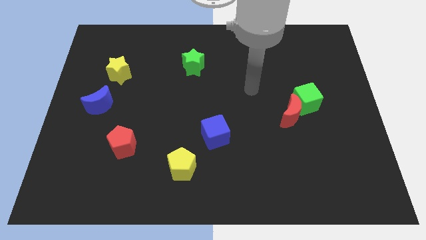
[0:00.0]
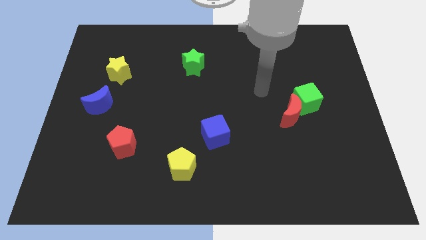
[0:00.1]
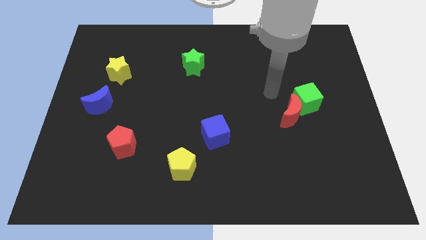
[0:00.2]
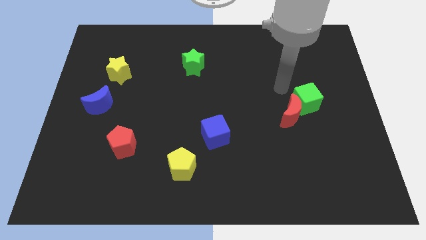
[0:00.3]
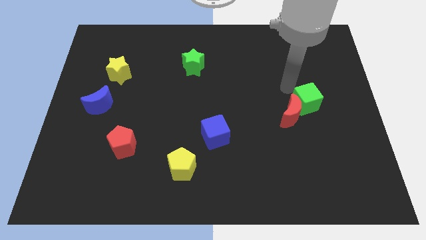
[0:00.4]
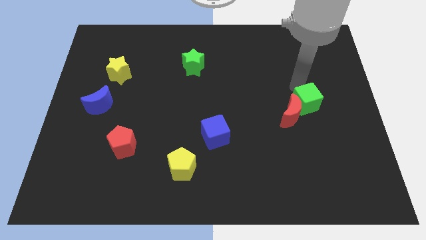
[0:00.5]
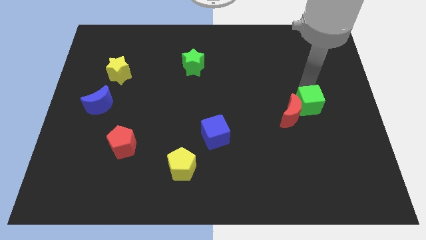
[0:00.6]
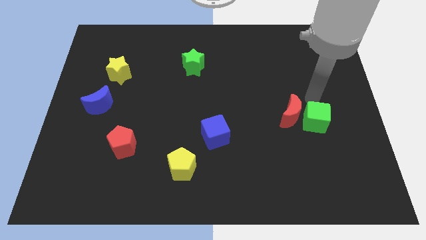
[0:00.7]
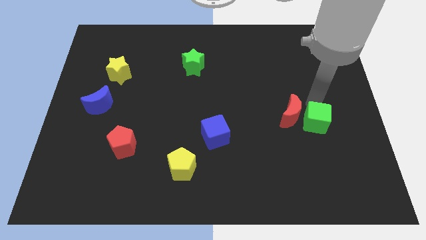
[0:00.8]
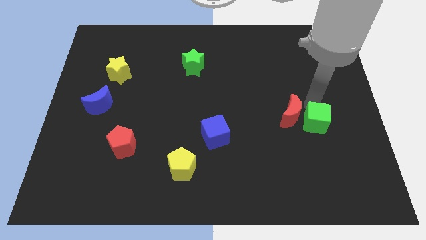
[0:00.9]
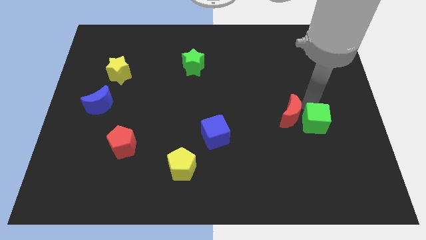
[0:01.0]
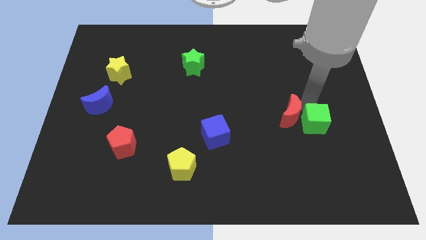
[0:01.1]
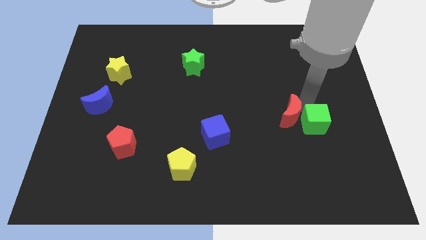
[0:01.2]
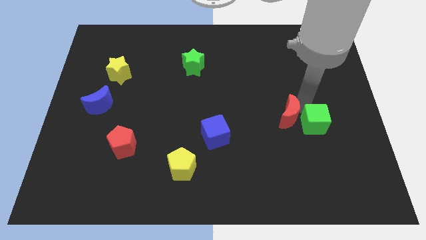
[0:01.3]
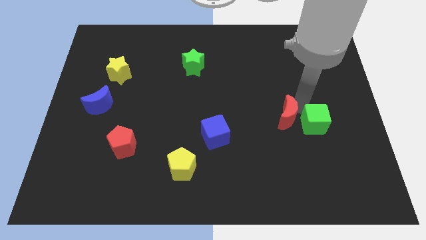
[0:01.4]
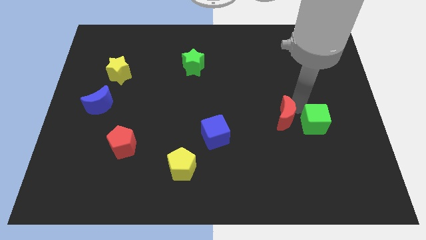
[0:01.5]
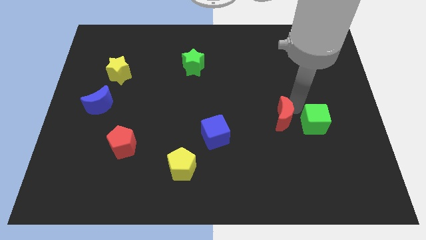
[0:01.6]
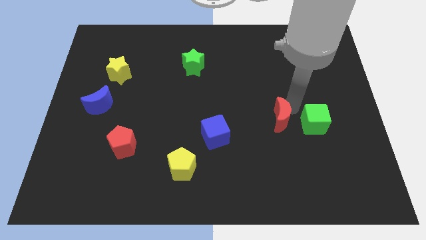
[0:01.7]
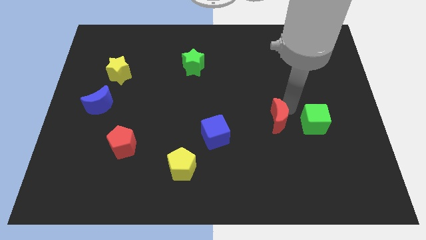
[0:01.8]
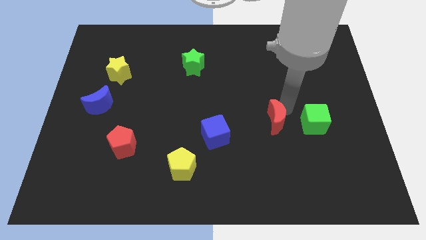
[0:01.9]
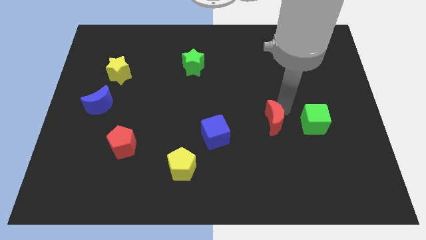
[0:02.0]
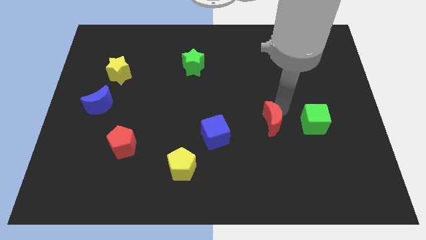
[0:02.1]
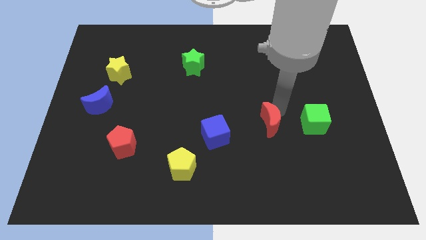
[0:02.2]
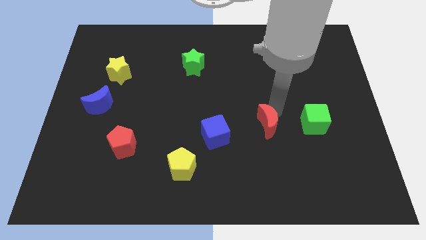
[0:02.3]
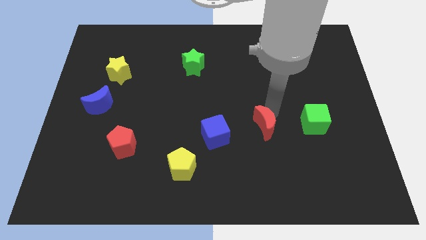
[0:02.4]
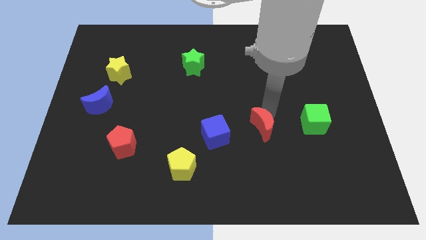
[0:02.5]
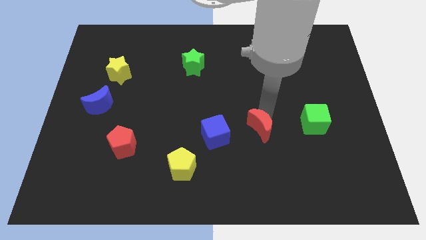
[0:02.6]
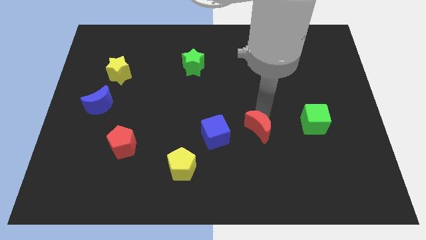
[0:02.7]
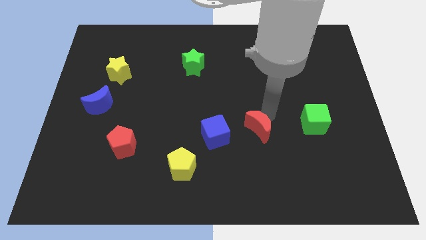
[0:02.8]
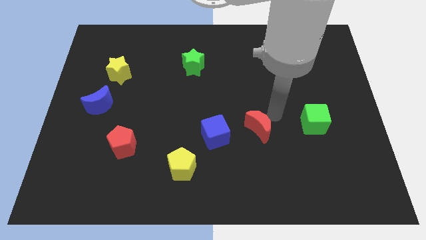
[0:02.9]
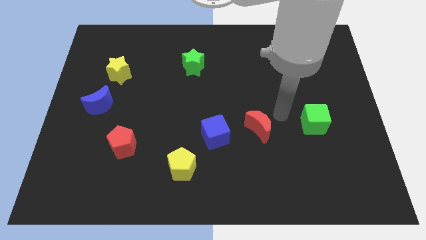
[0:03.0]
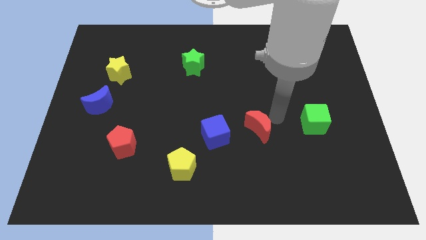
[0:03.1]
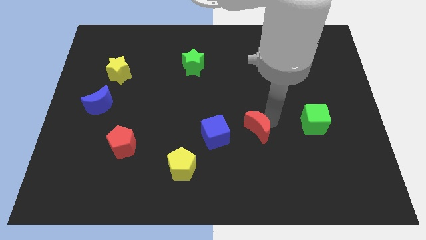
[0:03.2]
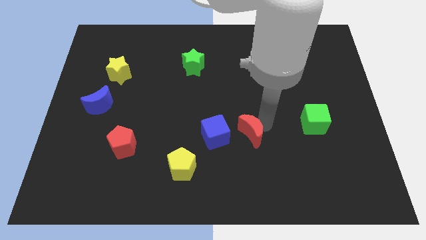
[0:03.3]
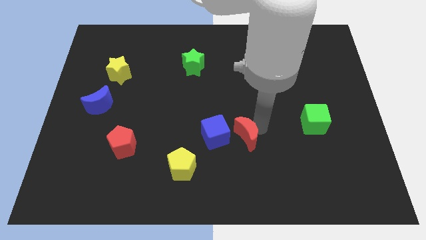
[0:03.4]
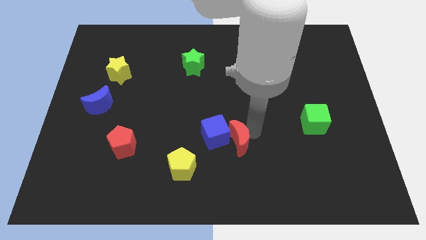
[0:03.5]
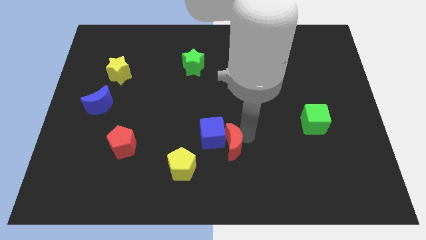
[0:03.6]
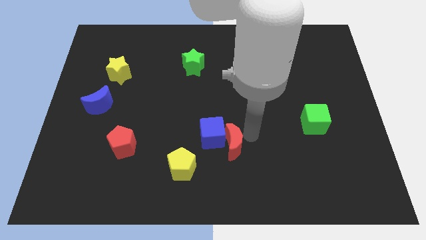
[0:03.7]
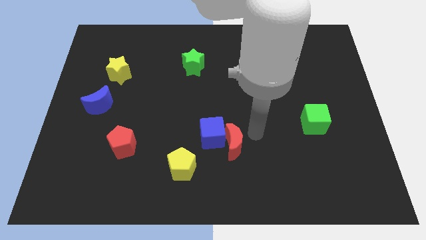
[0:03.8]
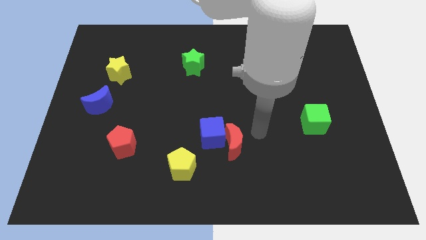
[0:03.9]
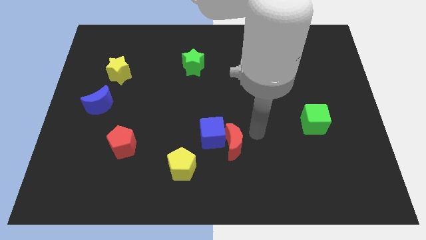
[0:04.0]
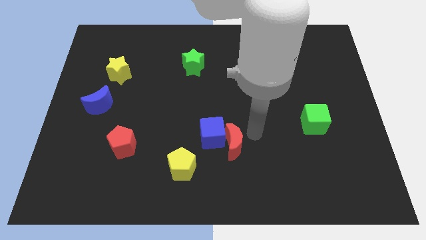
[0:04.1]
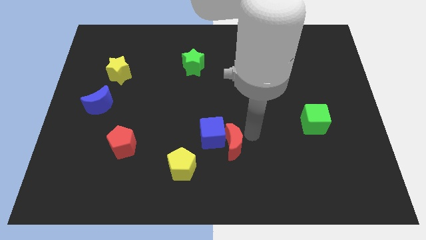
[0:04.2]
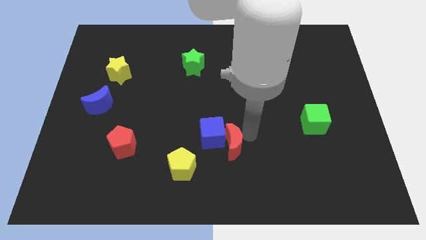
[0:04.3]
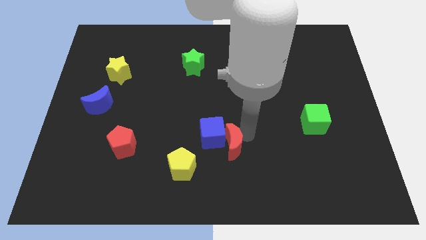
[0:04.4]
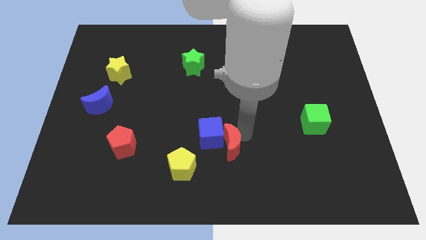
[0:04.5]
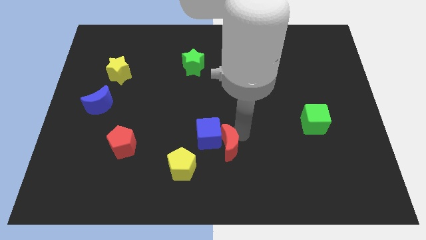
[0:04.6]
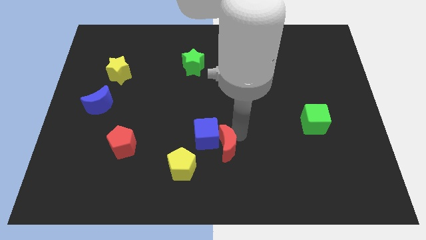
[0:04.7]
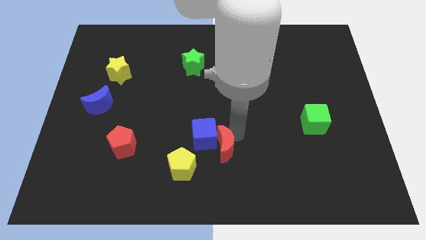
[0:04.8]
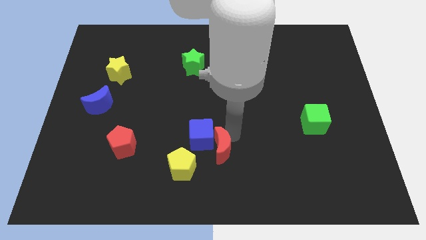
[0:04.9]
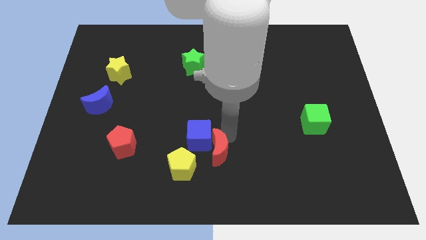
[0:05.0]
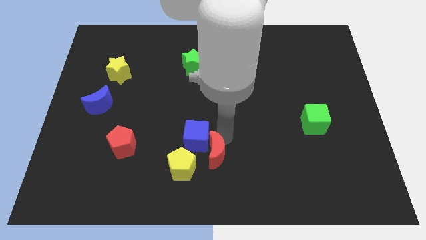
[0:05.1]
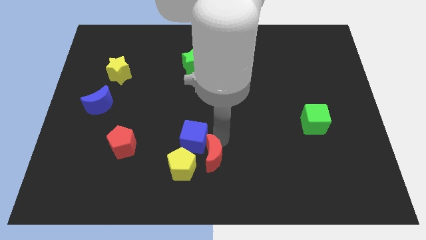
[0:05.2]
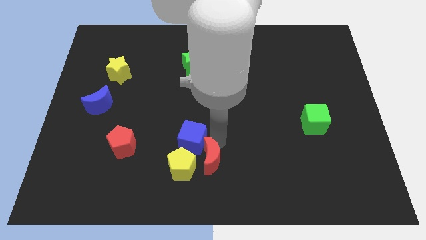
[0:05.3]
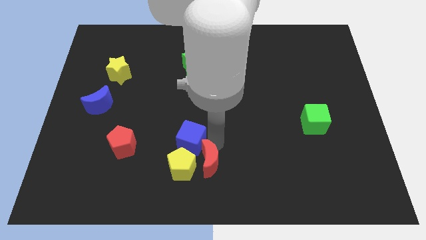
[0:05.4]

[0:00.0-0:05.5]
push the red moon next to the yellow pentagon

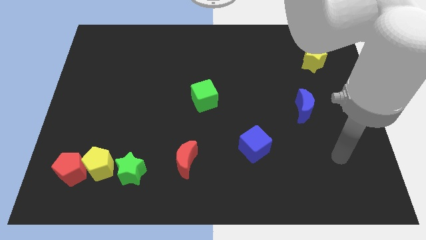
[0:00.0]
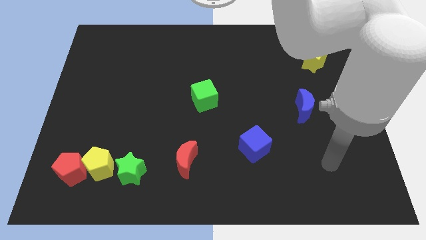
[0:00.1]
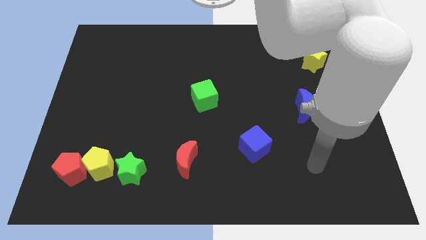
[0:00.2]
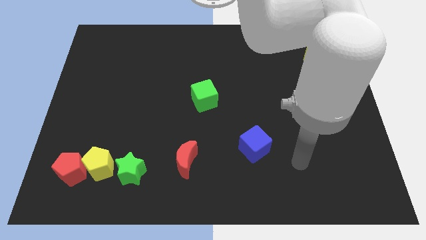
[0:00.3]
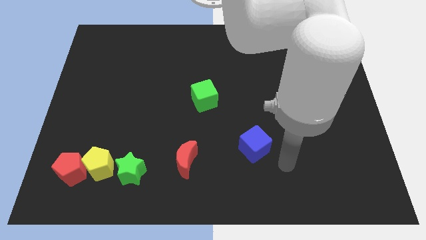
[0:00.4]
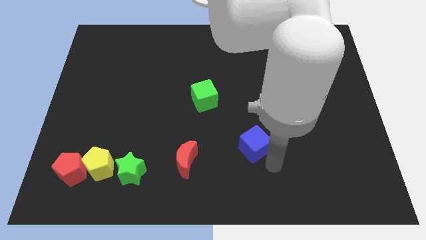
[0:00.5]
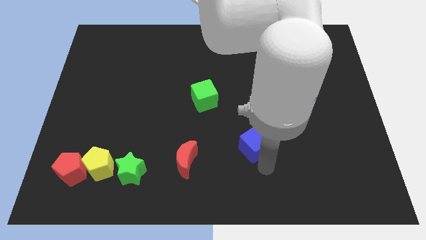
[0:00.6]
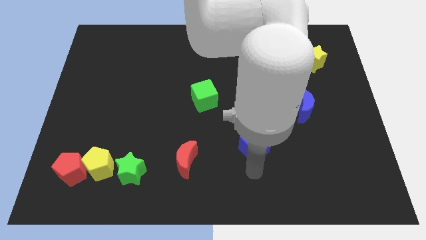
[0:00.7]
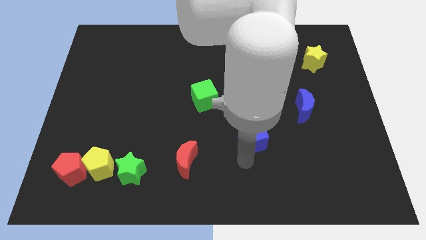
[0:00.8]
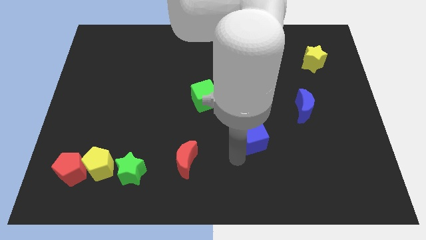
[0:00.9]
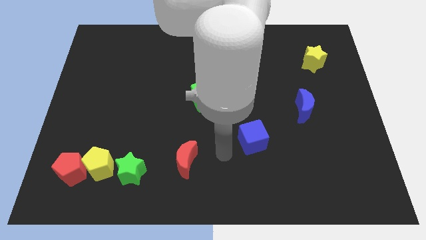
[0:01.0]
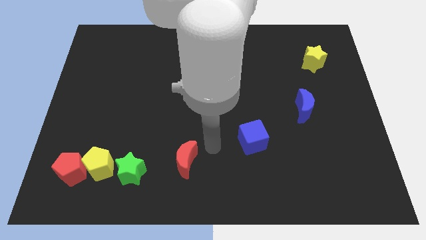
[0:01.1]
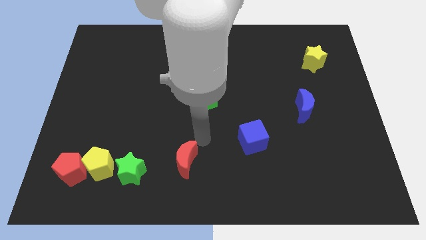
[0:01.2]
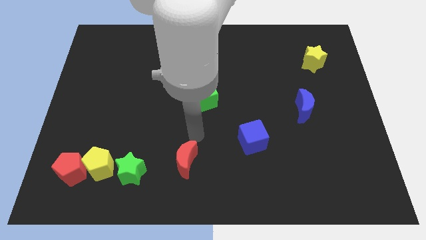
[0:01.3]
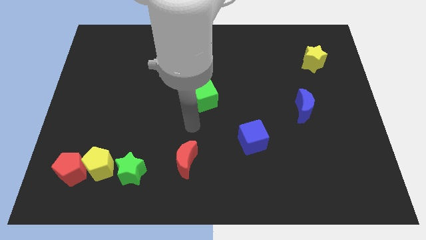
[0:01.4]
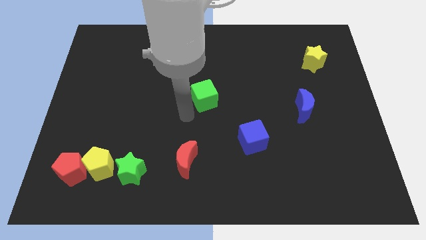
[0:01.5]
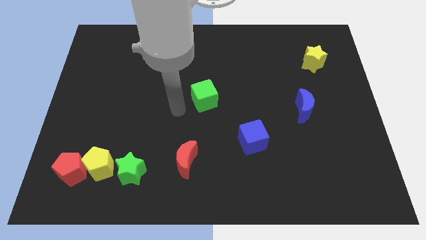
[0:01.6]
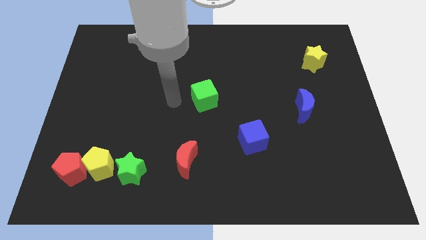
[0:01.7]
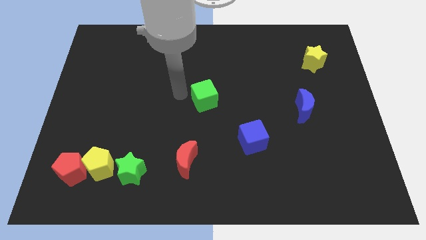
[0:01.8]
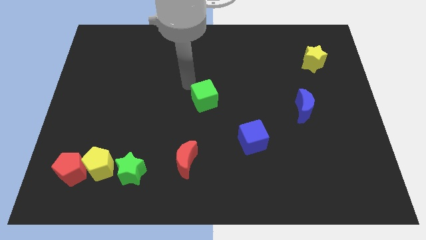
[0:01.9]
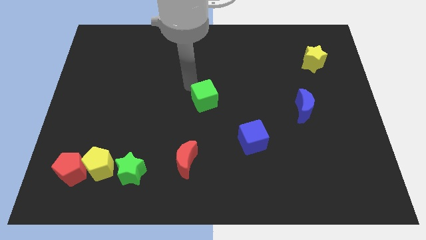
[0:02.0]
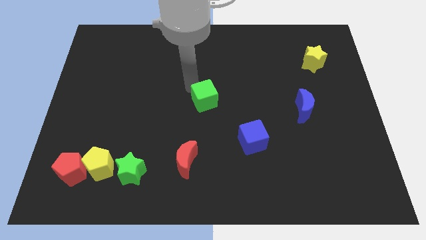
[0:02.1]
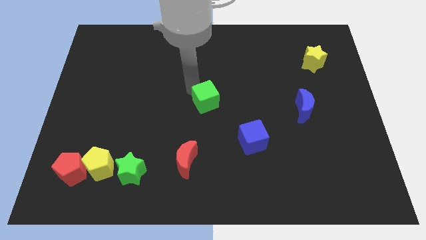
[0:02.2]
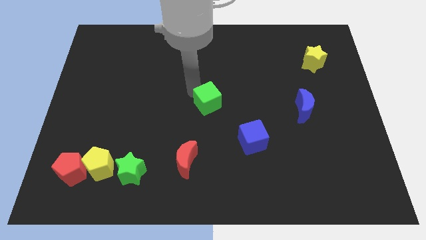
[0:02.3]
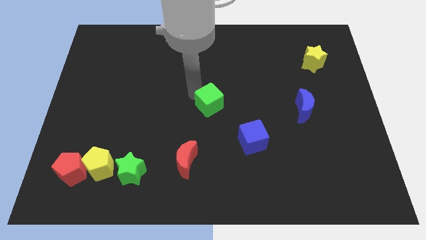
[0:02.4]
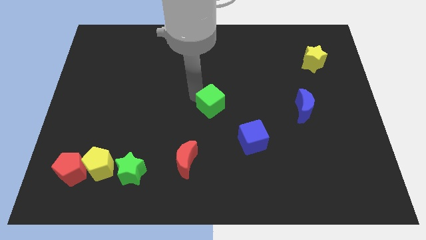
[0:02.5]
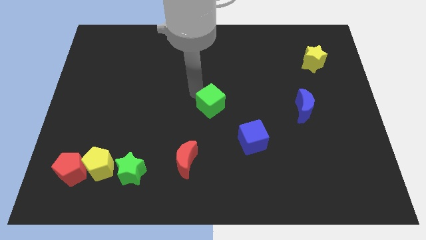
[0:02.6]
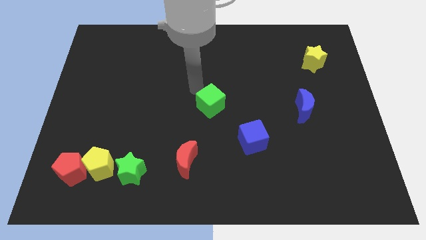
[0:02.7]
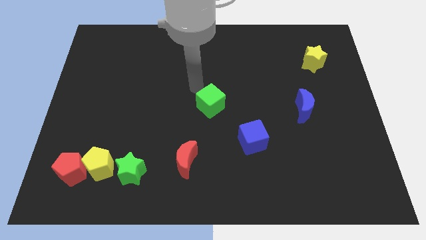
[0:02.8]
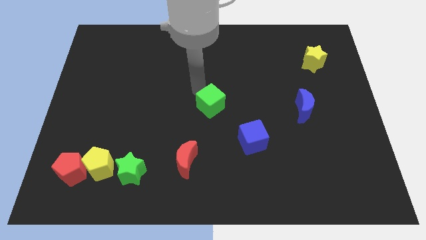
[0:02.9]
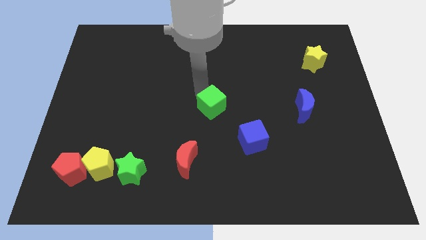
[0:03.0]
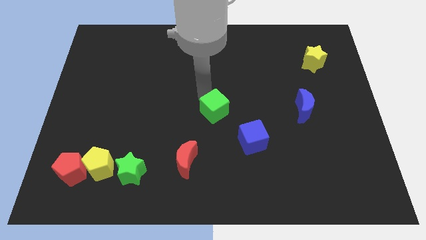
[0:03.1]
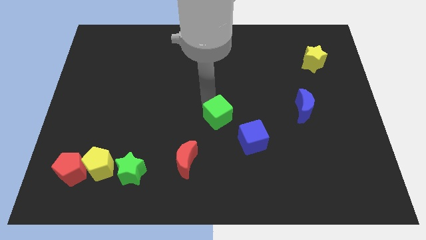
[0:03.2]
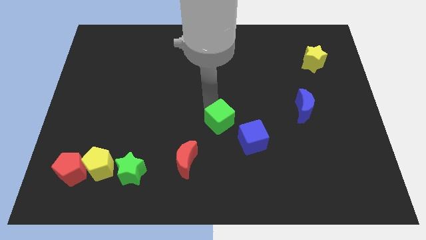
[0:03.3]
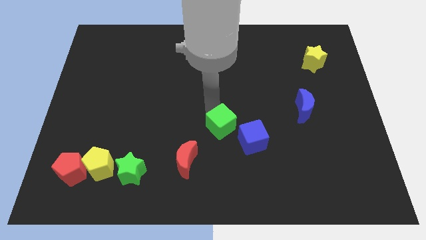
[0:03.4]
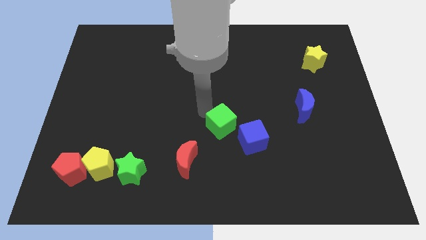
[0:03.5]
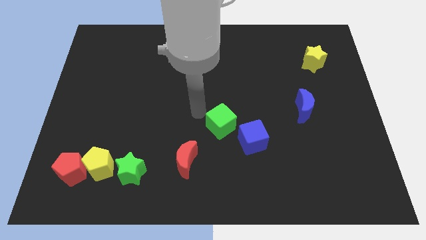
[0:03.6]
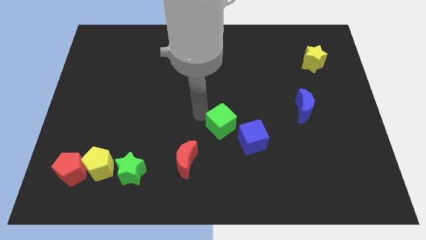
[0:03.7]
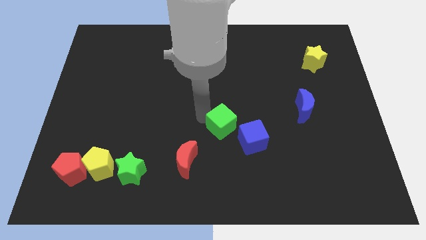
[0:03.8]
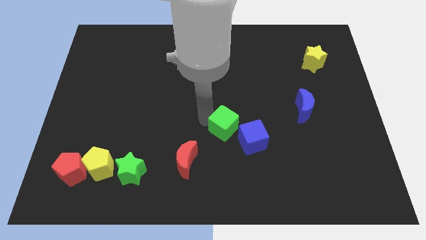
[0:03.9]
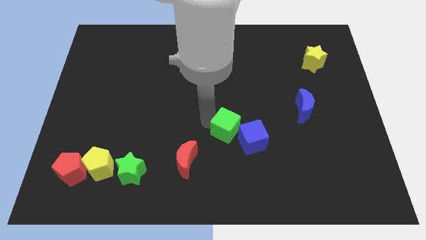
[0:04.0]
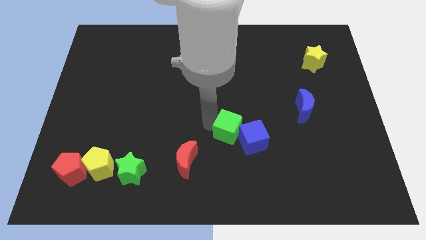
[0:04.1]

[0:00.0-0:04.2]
put the green cube towards the blue cube
